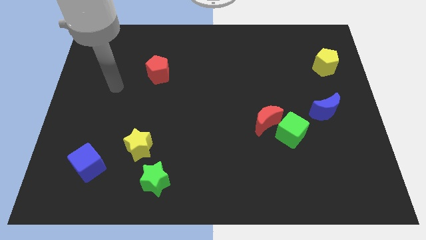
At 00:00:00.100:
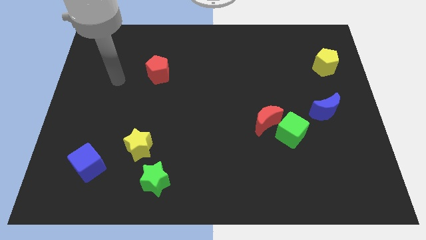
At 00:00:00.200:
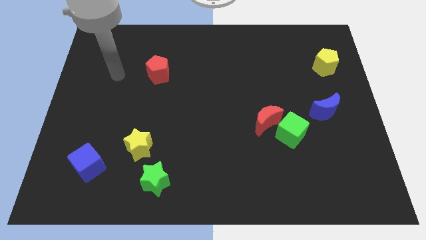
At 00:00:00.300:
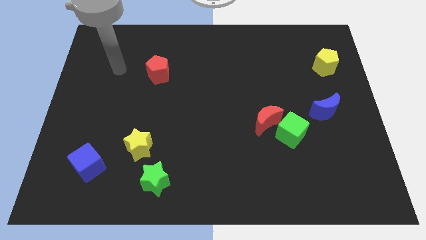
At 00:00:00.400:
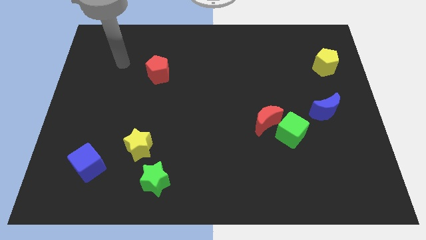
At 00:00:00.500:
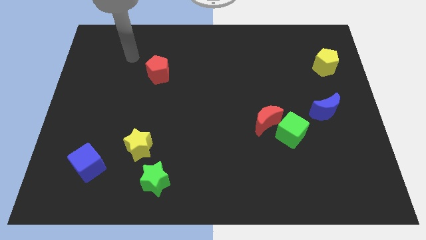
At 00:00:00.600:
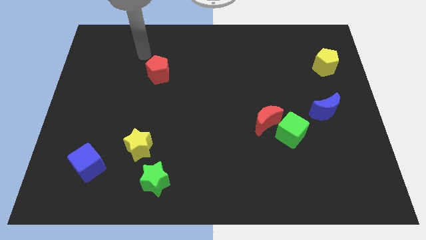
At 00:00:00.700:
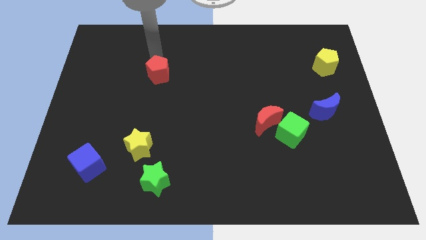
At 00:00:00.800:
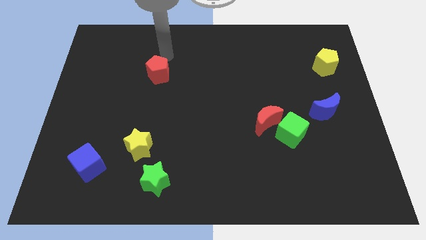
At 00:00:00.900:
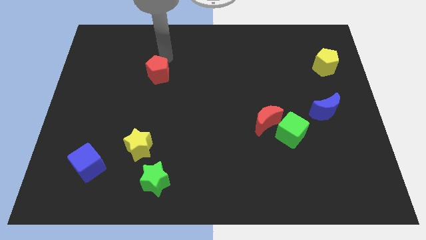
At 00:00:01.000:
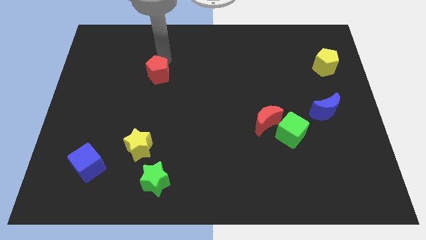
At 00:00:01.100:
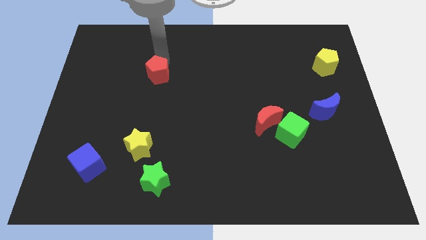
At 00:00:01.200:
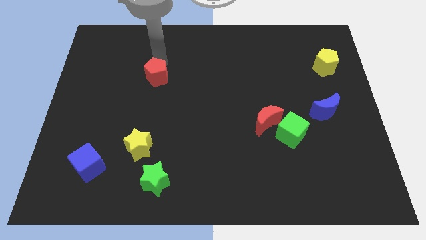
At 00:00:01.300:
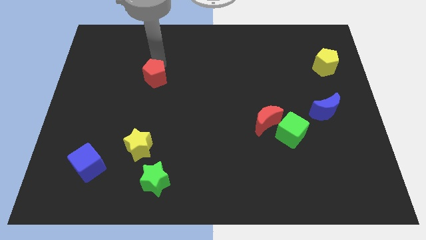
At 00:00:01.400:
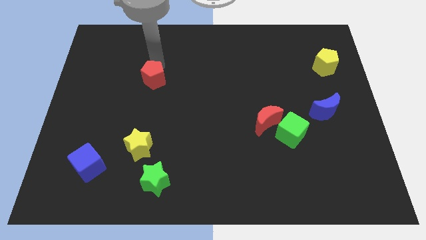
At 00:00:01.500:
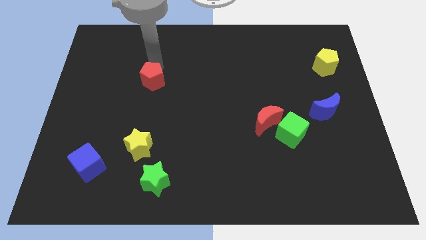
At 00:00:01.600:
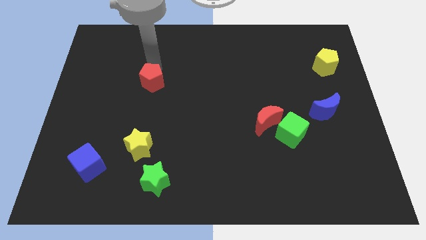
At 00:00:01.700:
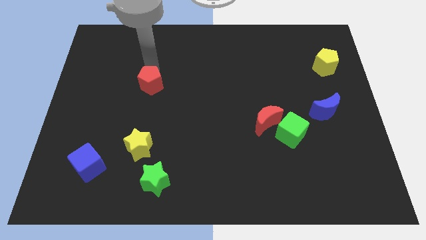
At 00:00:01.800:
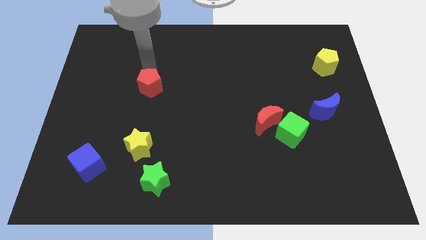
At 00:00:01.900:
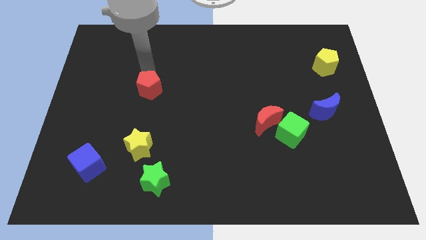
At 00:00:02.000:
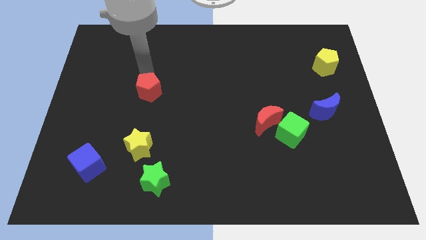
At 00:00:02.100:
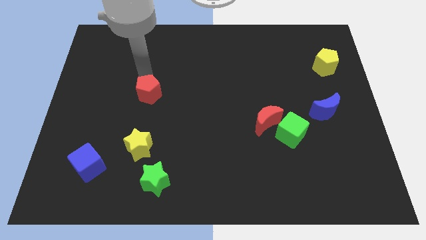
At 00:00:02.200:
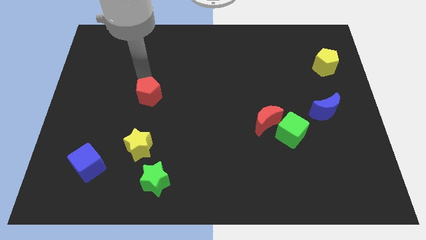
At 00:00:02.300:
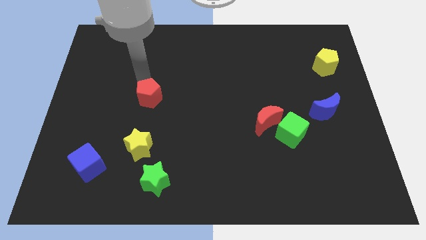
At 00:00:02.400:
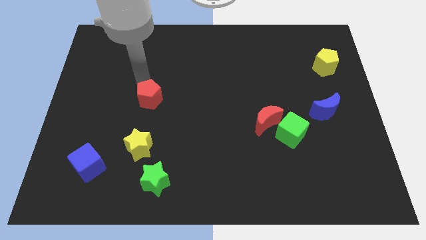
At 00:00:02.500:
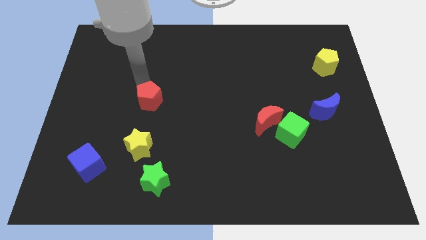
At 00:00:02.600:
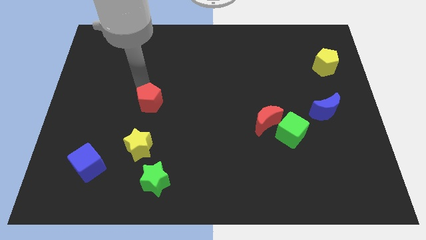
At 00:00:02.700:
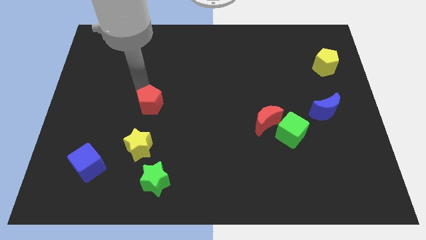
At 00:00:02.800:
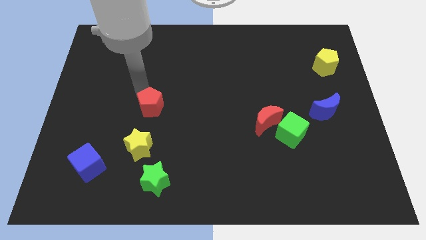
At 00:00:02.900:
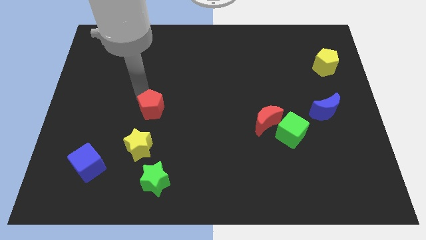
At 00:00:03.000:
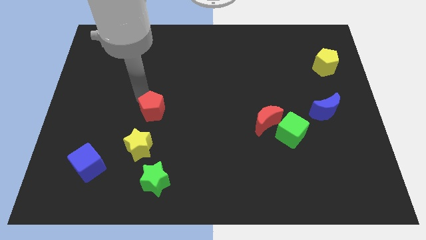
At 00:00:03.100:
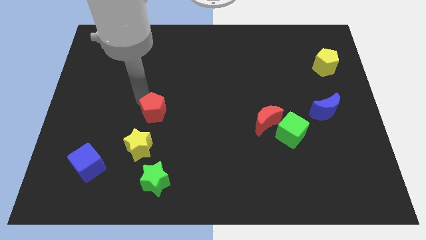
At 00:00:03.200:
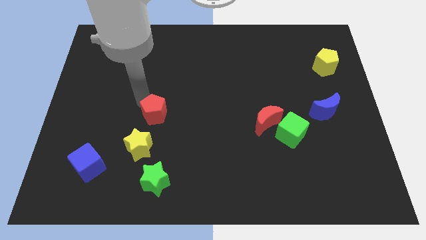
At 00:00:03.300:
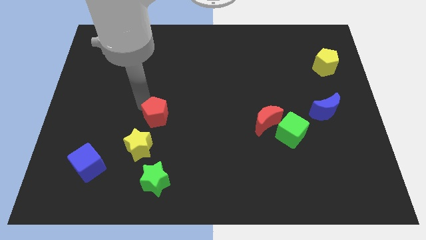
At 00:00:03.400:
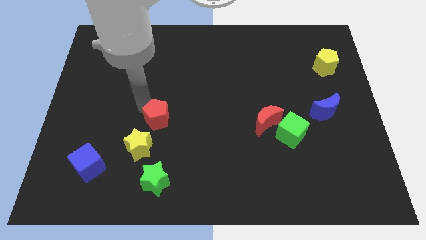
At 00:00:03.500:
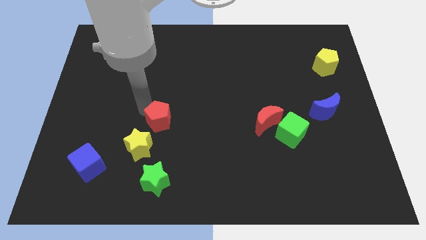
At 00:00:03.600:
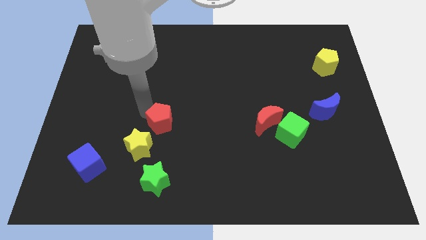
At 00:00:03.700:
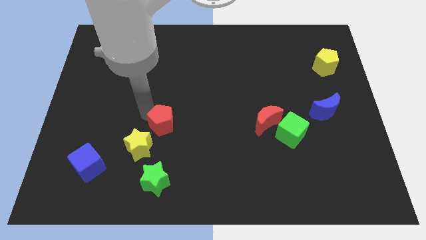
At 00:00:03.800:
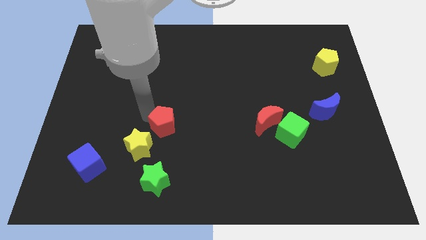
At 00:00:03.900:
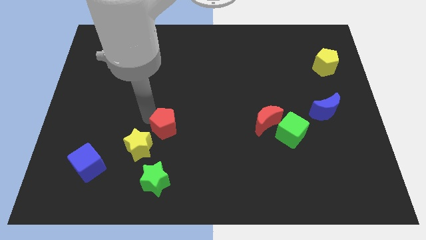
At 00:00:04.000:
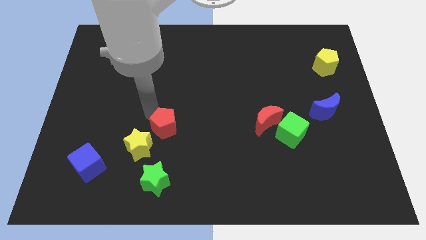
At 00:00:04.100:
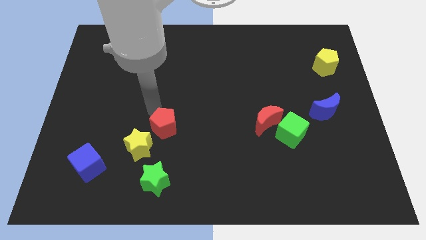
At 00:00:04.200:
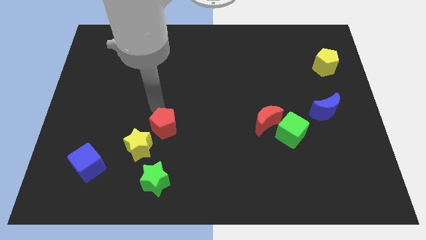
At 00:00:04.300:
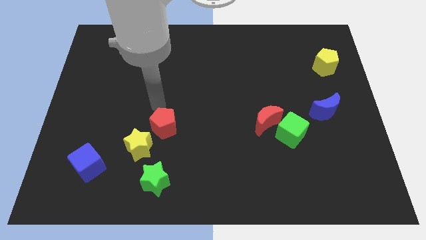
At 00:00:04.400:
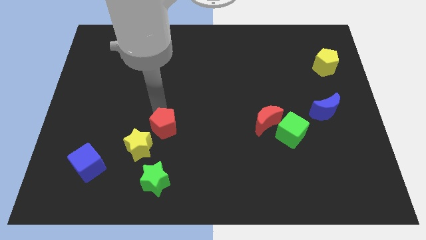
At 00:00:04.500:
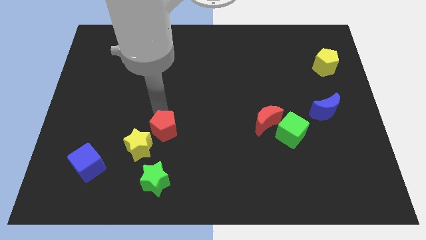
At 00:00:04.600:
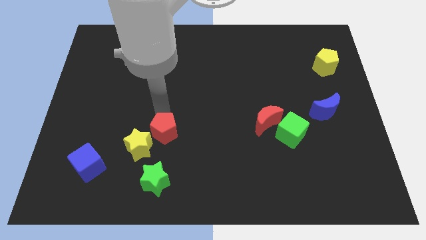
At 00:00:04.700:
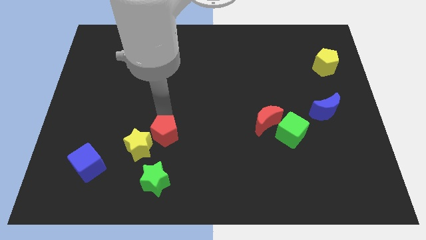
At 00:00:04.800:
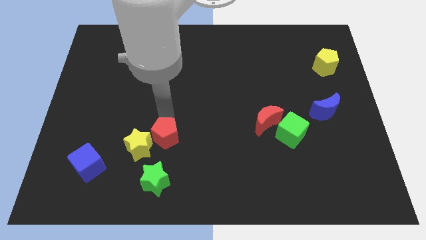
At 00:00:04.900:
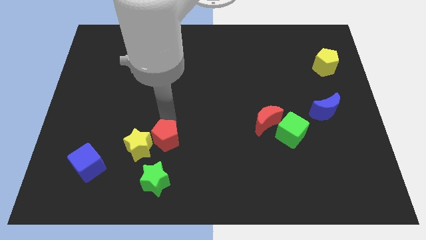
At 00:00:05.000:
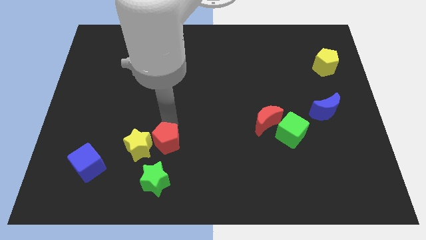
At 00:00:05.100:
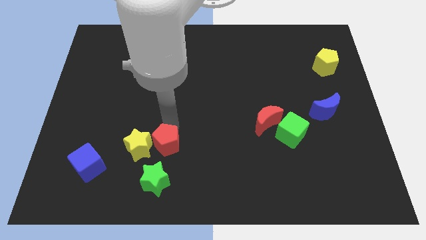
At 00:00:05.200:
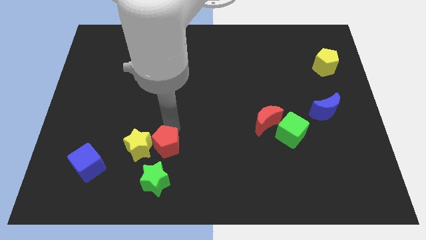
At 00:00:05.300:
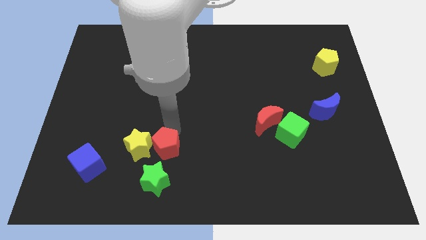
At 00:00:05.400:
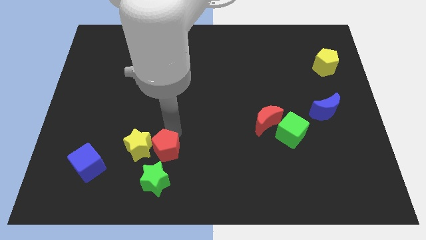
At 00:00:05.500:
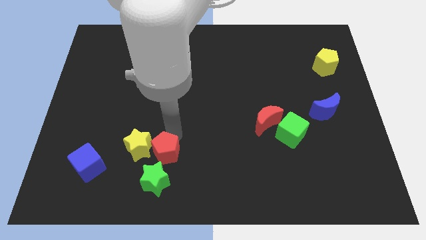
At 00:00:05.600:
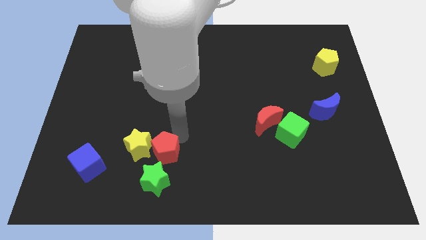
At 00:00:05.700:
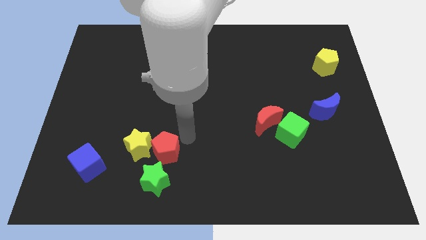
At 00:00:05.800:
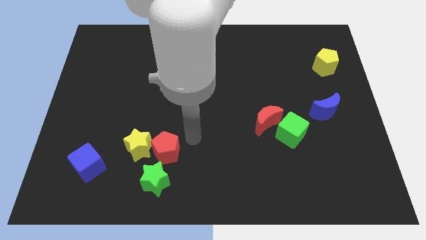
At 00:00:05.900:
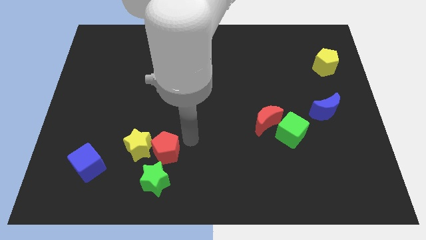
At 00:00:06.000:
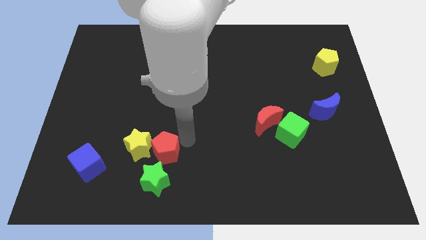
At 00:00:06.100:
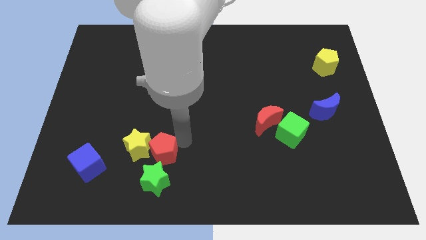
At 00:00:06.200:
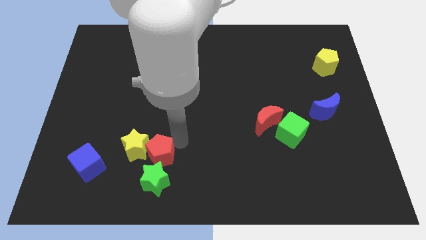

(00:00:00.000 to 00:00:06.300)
push the red pentagon to the right side of the blue cube
